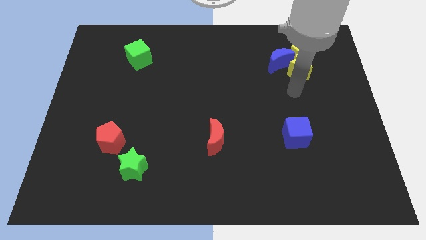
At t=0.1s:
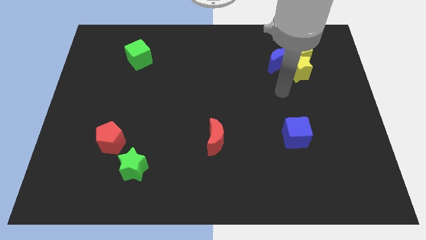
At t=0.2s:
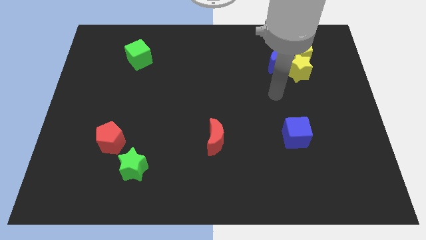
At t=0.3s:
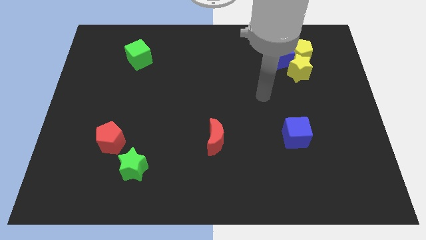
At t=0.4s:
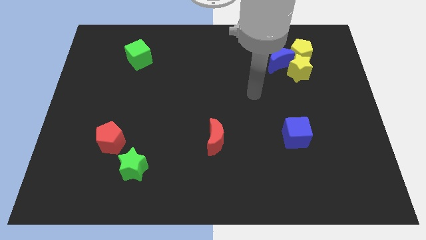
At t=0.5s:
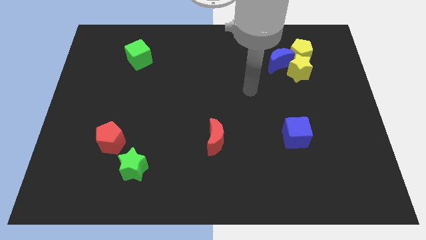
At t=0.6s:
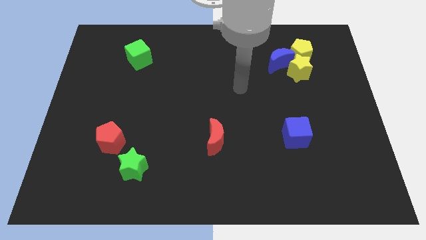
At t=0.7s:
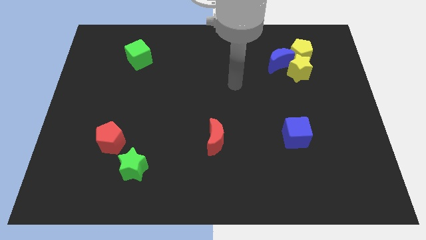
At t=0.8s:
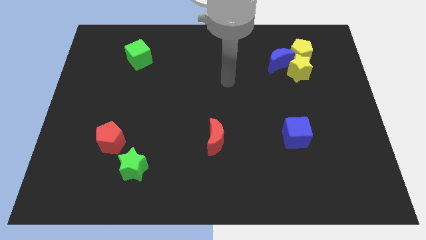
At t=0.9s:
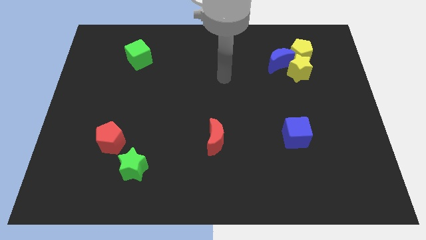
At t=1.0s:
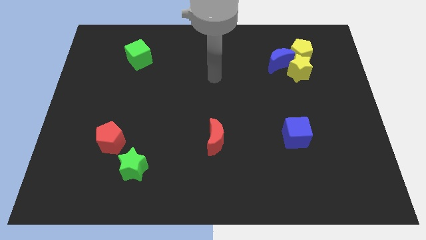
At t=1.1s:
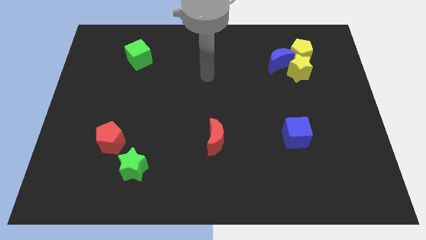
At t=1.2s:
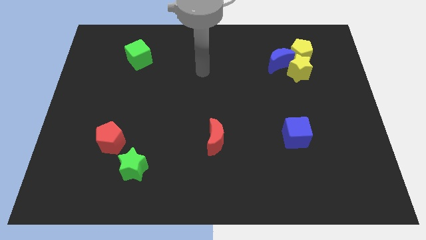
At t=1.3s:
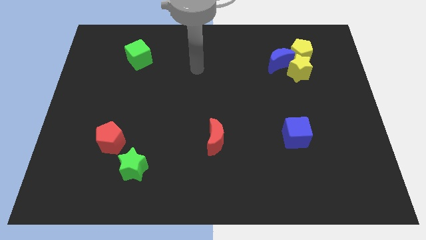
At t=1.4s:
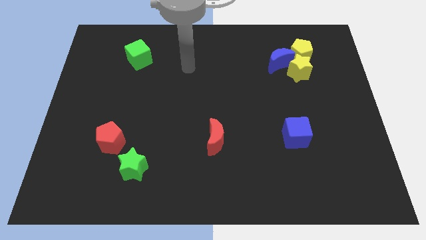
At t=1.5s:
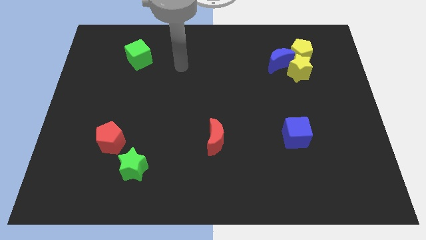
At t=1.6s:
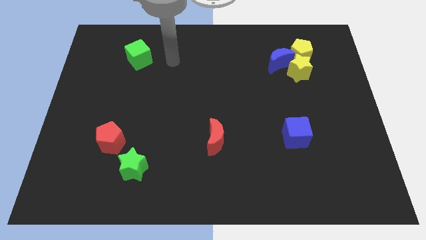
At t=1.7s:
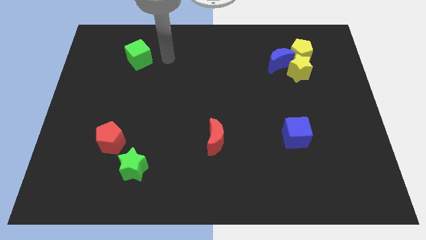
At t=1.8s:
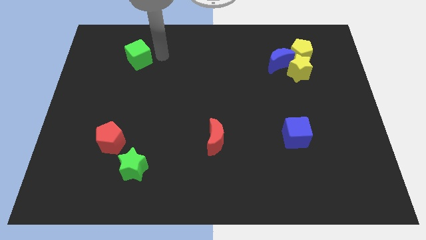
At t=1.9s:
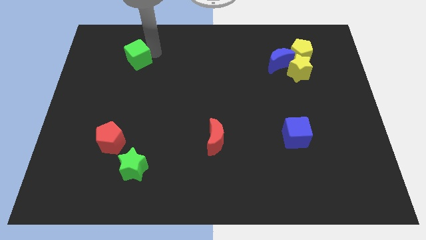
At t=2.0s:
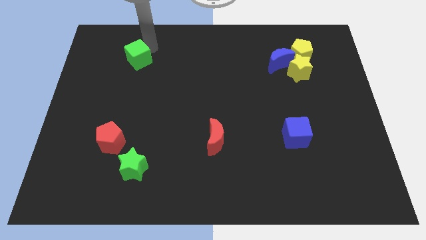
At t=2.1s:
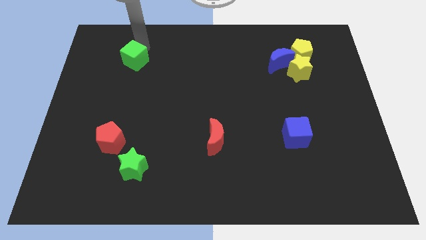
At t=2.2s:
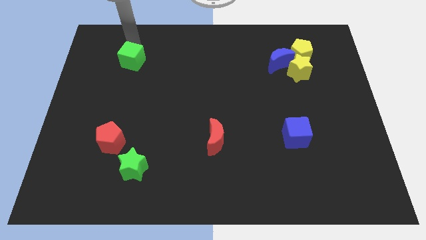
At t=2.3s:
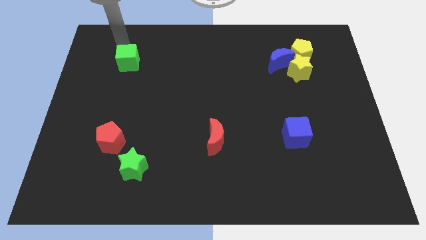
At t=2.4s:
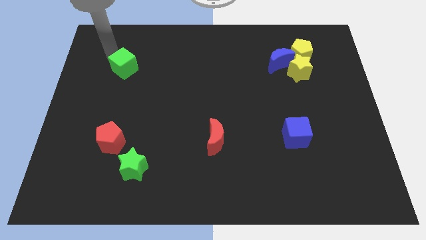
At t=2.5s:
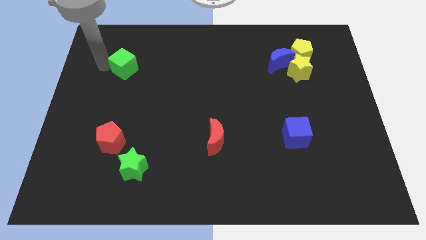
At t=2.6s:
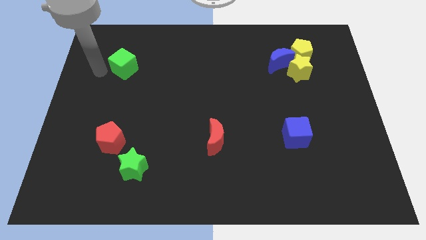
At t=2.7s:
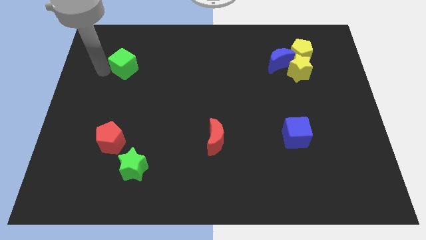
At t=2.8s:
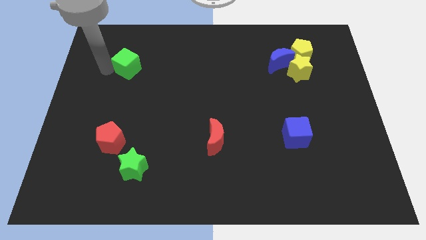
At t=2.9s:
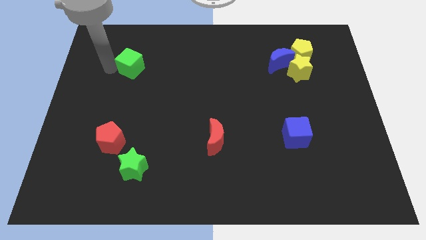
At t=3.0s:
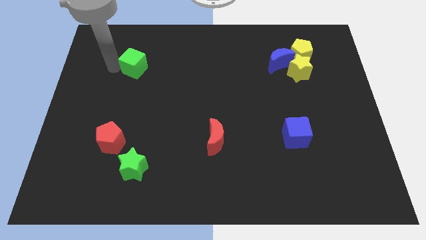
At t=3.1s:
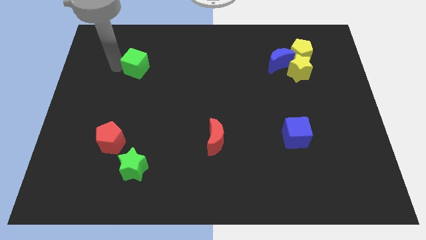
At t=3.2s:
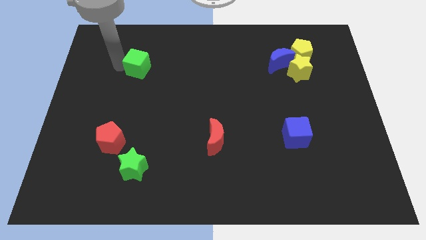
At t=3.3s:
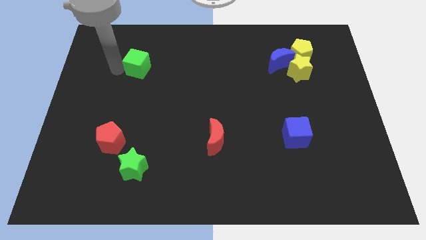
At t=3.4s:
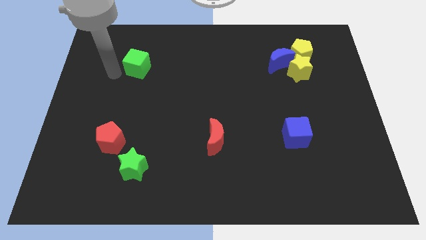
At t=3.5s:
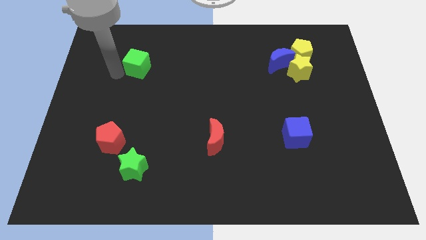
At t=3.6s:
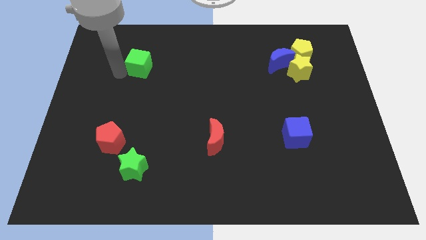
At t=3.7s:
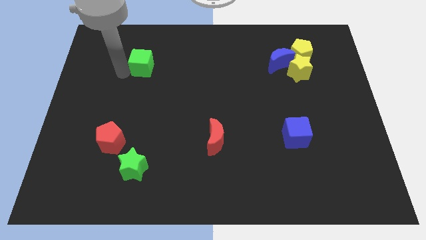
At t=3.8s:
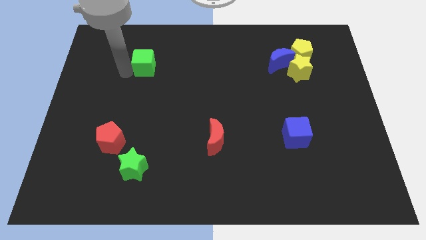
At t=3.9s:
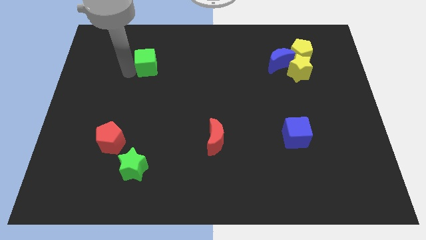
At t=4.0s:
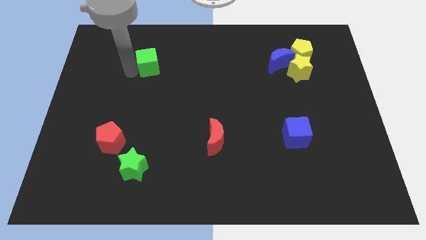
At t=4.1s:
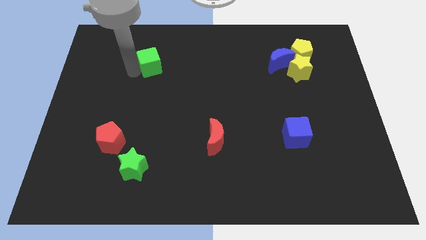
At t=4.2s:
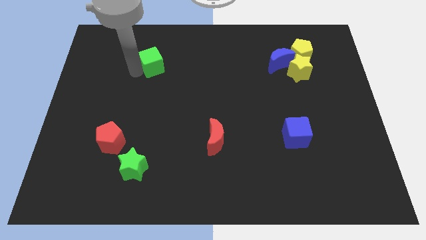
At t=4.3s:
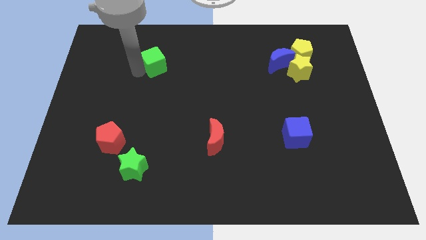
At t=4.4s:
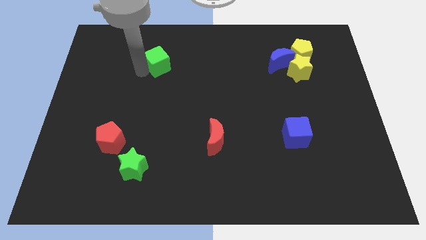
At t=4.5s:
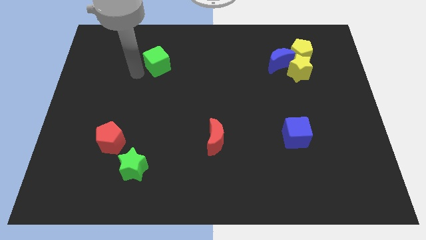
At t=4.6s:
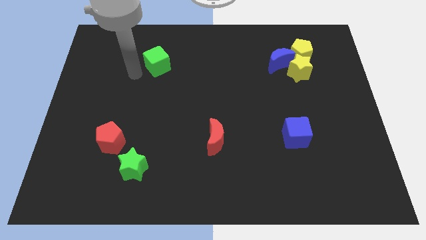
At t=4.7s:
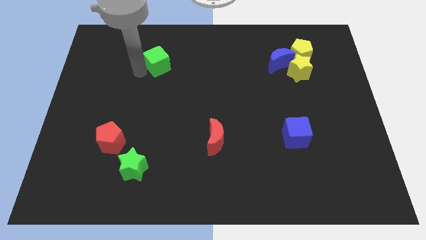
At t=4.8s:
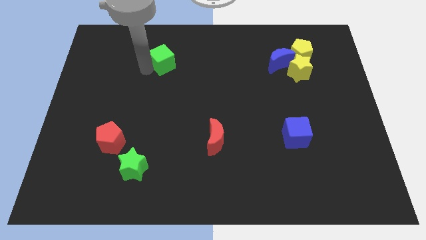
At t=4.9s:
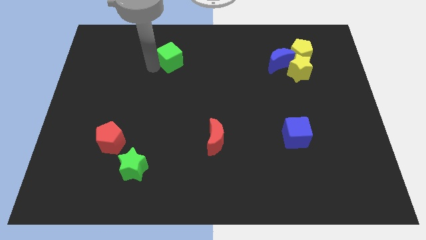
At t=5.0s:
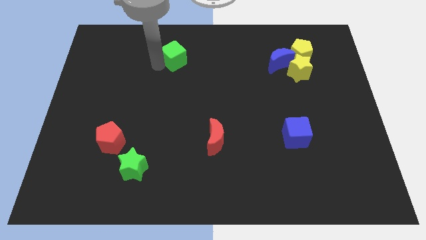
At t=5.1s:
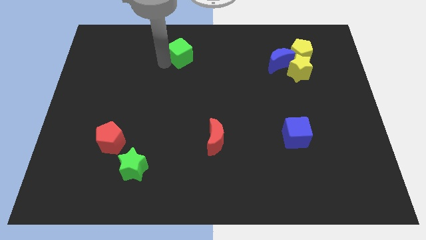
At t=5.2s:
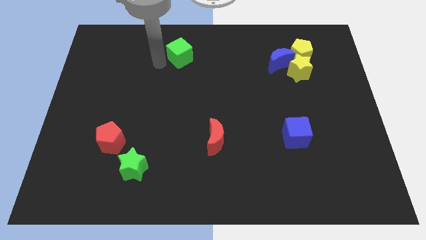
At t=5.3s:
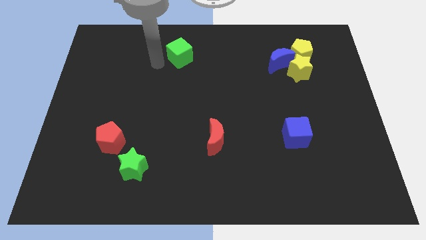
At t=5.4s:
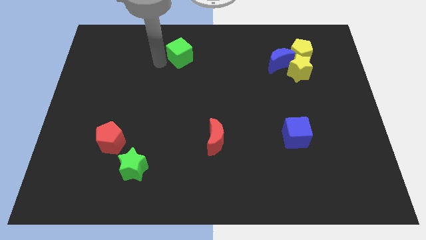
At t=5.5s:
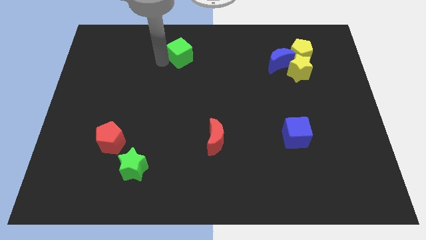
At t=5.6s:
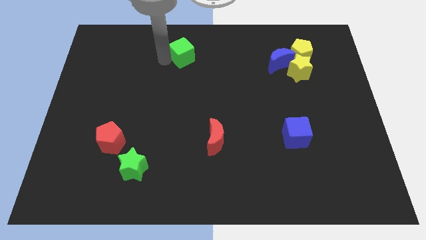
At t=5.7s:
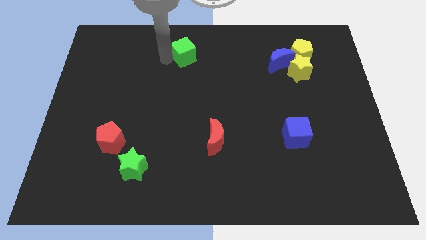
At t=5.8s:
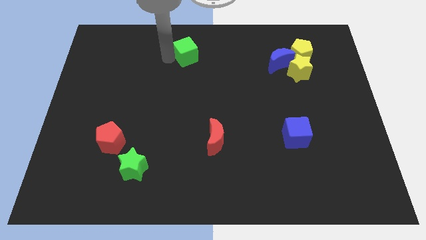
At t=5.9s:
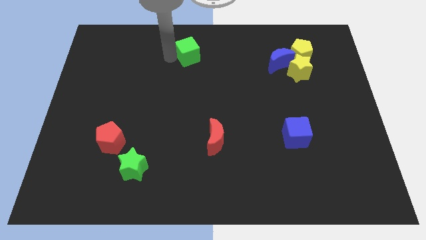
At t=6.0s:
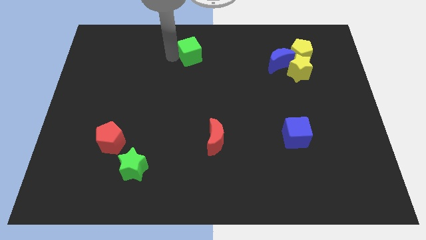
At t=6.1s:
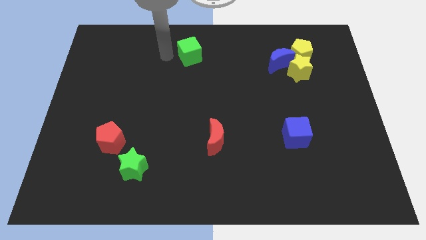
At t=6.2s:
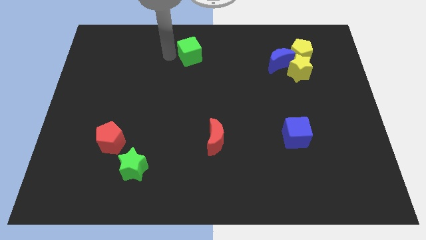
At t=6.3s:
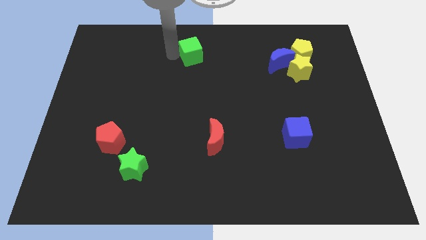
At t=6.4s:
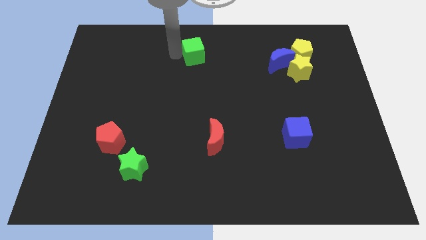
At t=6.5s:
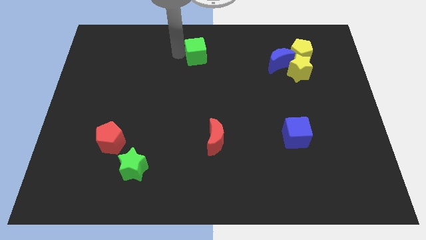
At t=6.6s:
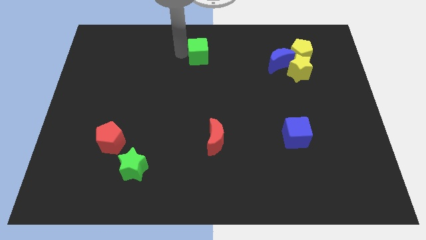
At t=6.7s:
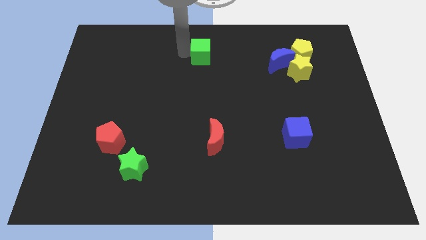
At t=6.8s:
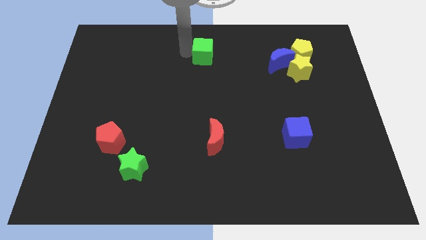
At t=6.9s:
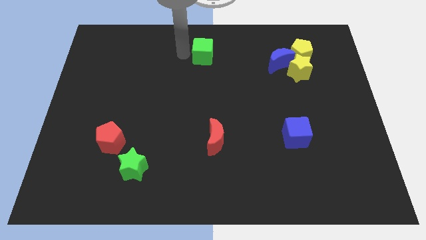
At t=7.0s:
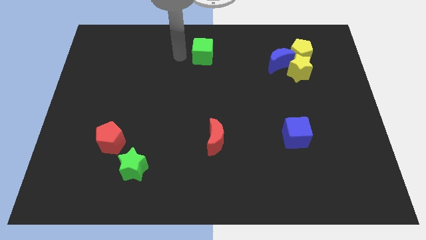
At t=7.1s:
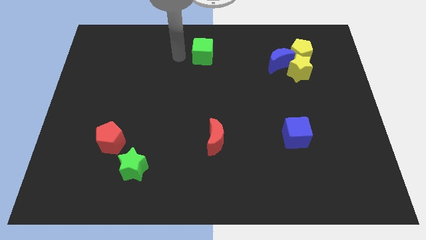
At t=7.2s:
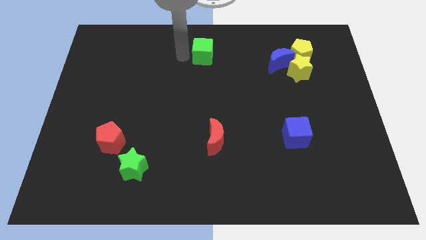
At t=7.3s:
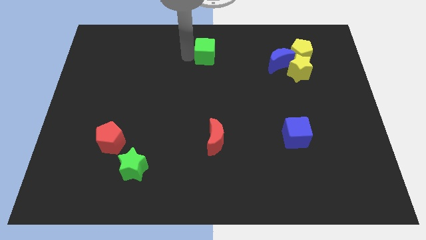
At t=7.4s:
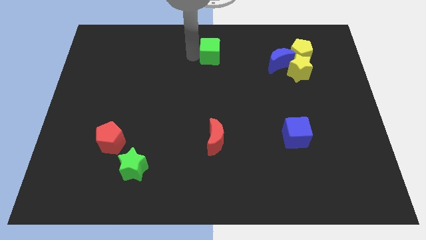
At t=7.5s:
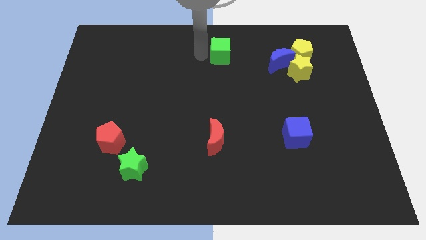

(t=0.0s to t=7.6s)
move the green cube to the right

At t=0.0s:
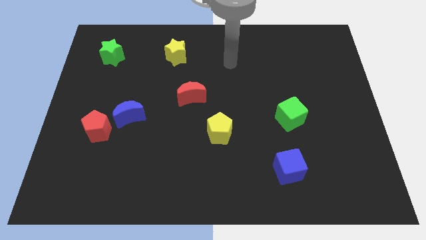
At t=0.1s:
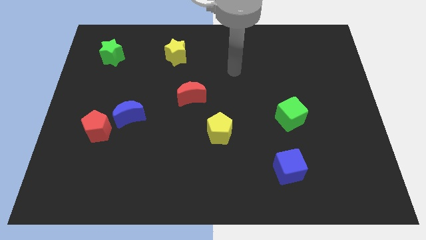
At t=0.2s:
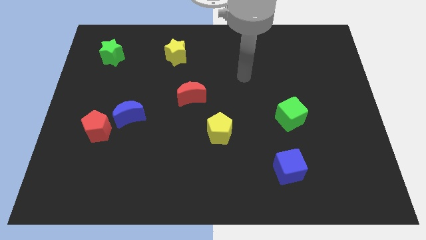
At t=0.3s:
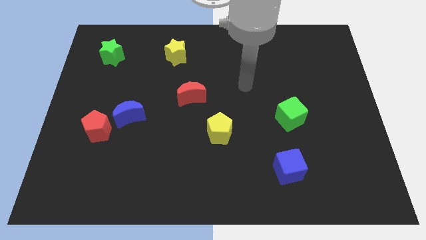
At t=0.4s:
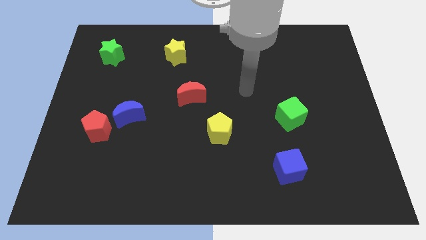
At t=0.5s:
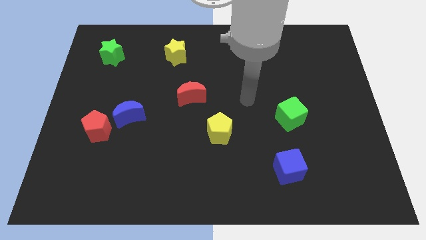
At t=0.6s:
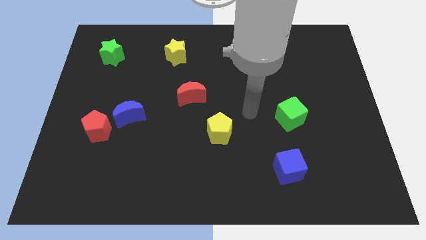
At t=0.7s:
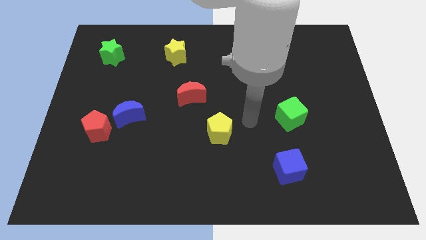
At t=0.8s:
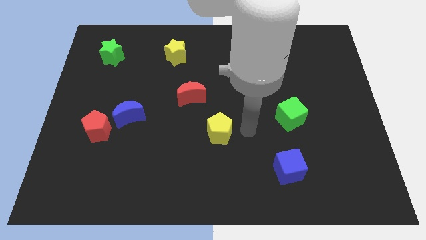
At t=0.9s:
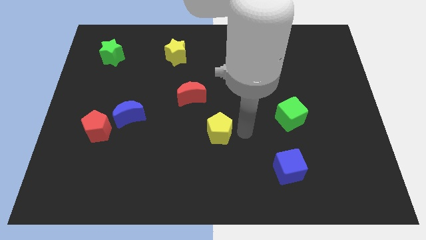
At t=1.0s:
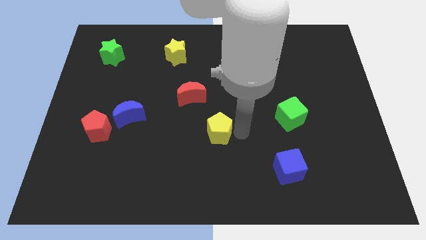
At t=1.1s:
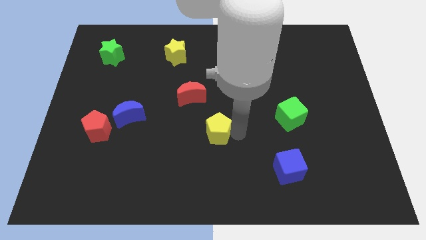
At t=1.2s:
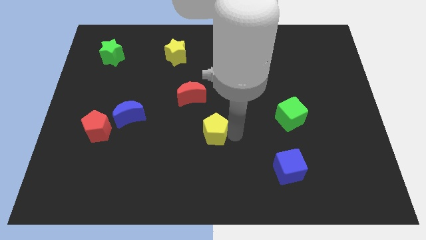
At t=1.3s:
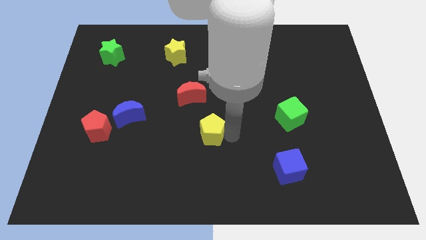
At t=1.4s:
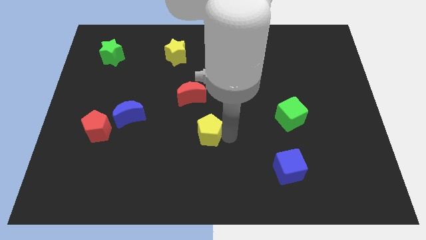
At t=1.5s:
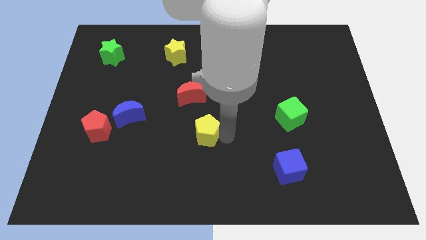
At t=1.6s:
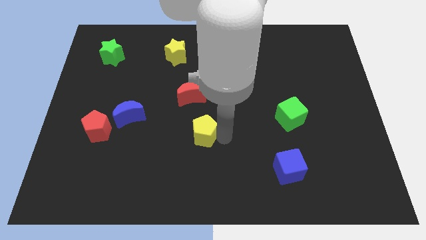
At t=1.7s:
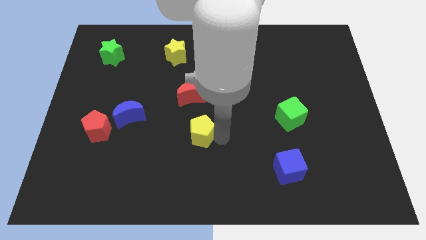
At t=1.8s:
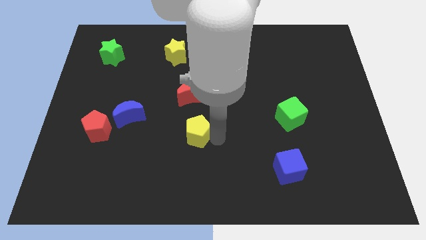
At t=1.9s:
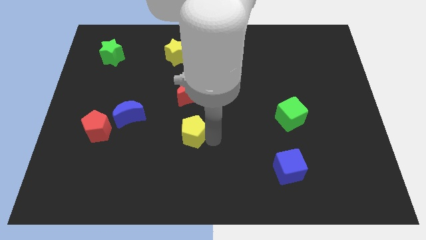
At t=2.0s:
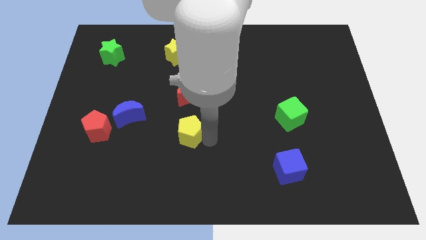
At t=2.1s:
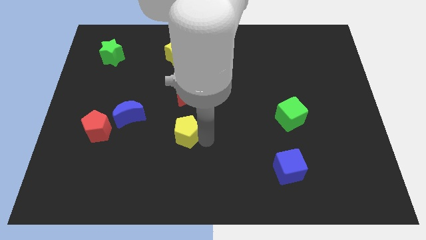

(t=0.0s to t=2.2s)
slide the yellow pentagon slightly to the left
